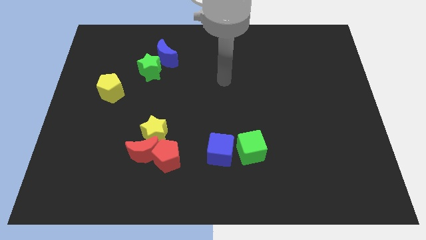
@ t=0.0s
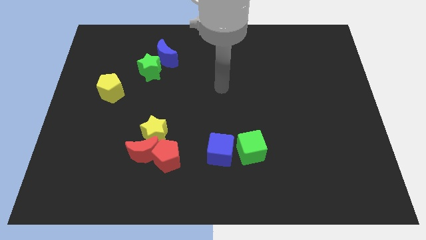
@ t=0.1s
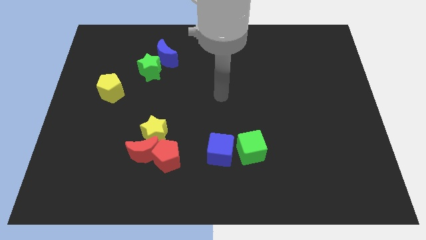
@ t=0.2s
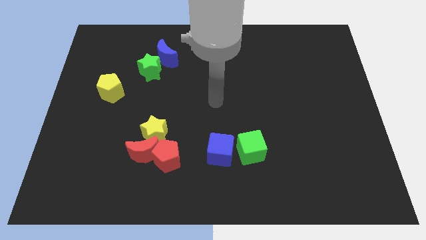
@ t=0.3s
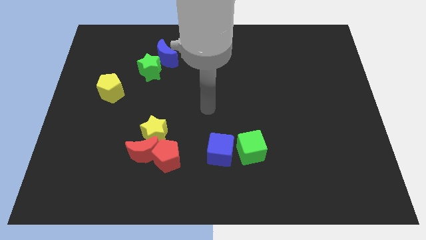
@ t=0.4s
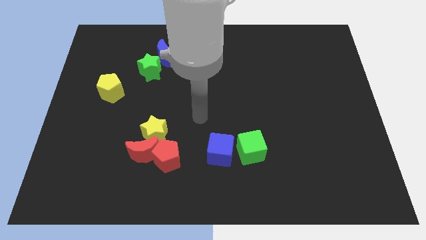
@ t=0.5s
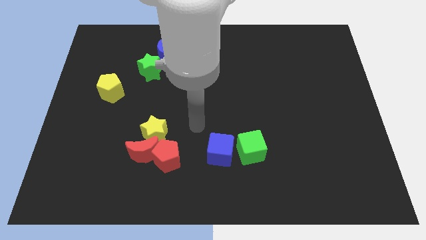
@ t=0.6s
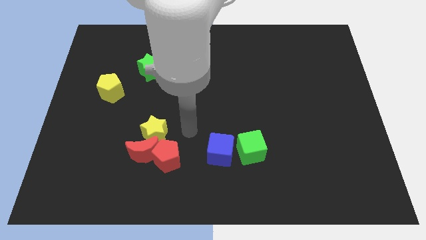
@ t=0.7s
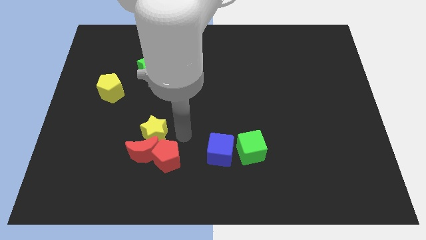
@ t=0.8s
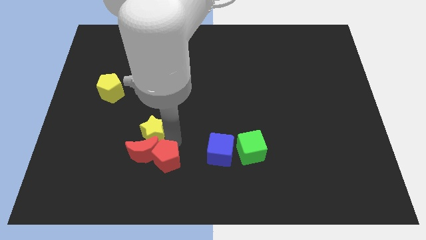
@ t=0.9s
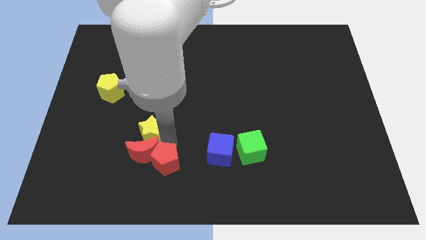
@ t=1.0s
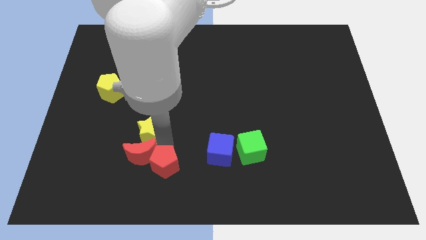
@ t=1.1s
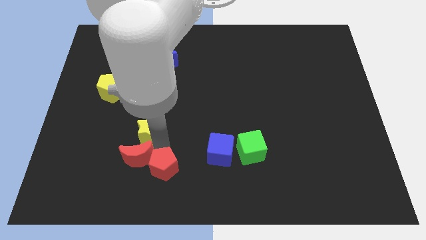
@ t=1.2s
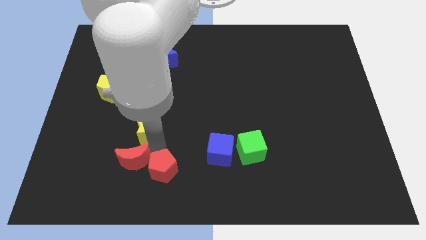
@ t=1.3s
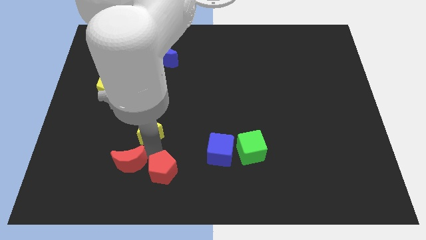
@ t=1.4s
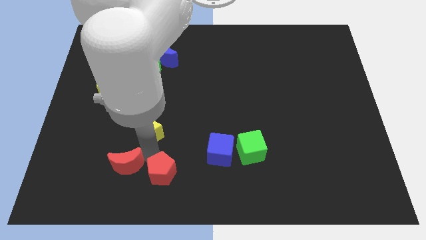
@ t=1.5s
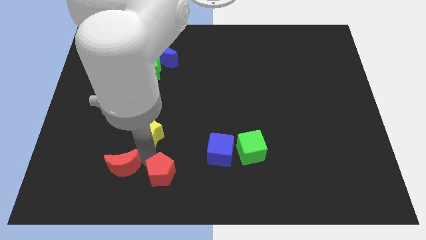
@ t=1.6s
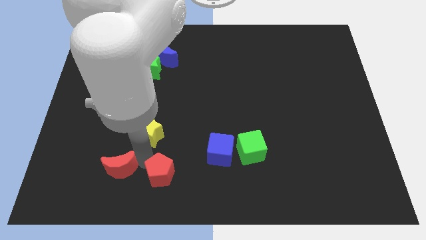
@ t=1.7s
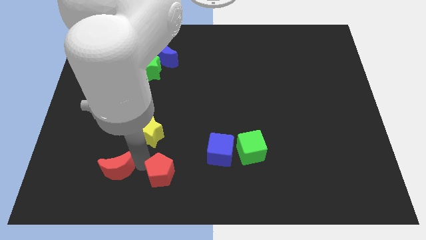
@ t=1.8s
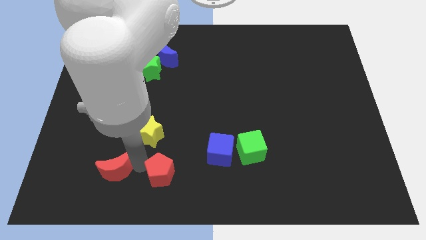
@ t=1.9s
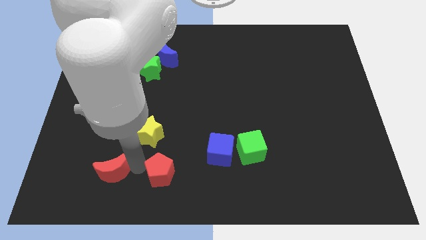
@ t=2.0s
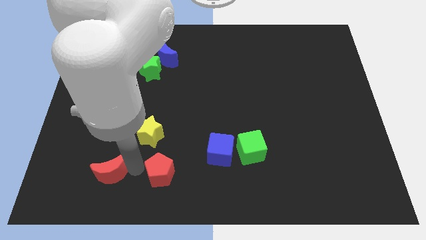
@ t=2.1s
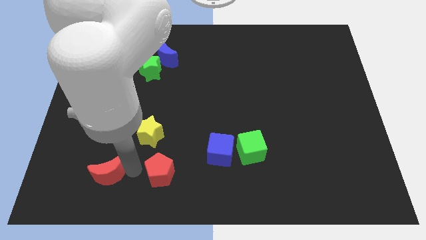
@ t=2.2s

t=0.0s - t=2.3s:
separate the red moon from the yellow star and red pentagon

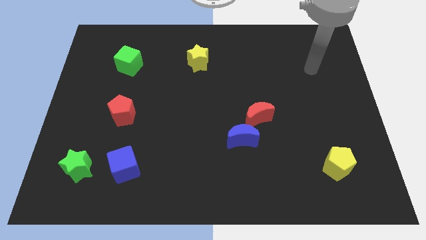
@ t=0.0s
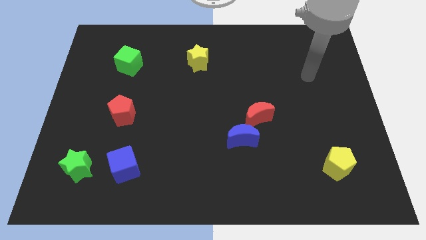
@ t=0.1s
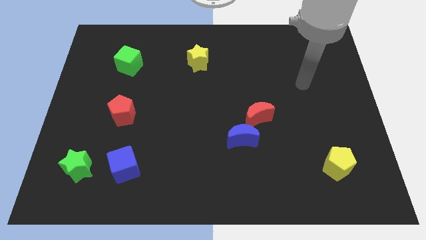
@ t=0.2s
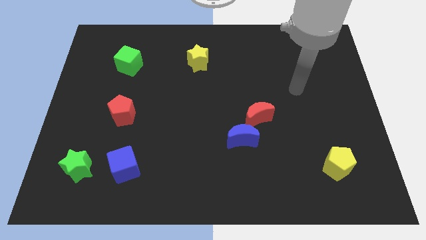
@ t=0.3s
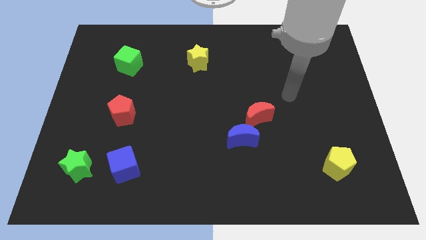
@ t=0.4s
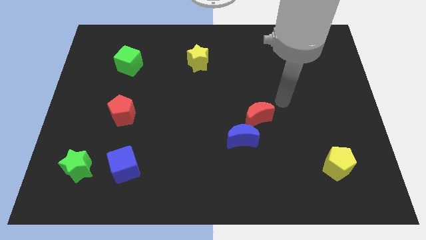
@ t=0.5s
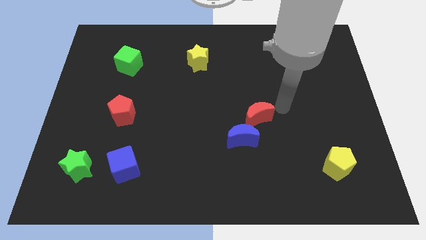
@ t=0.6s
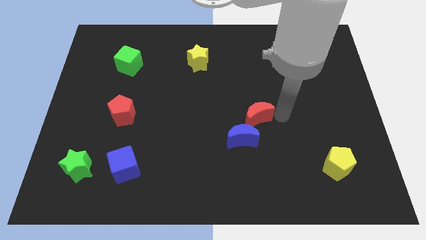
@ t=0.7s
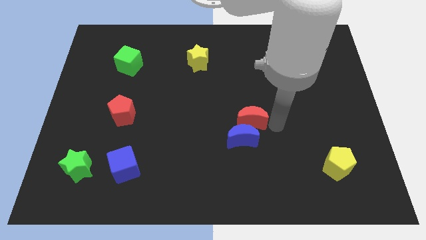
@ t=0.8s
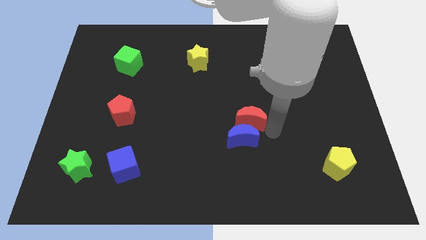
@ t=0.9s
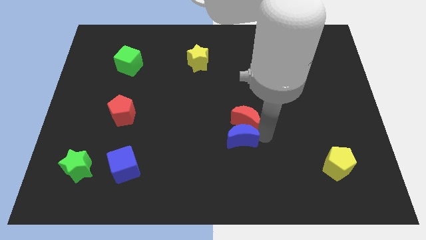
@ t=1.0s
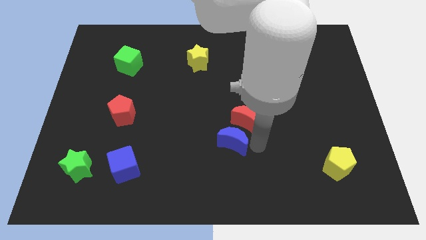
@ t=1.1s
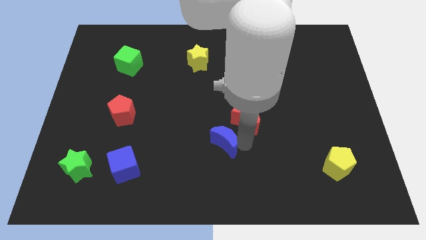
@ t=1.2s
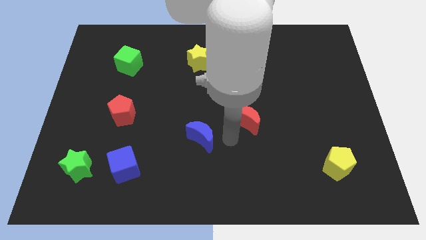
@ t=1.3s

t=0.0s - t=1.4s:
move the red moon away from the blue moon

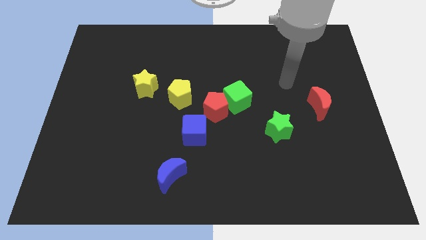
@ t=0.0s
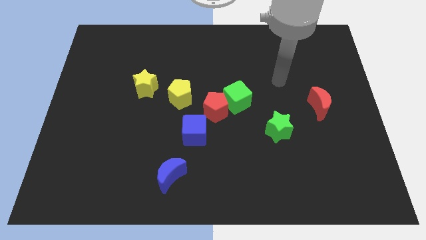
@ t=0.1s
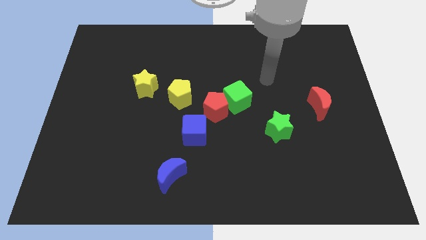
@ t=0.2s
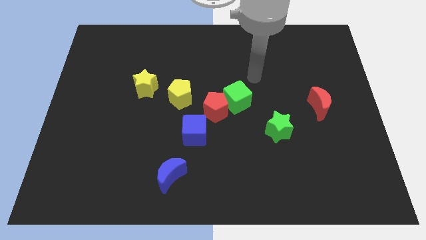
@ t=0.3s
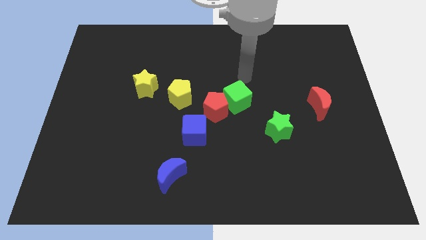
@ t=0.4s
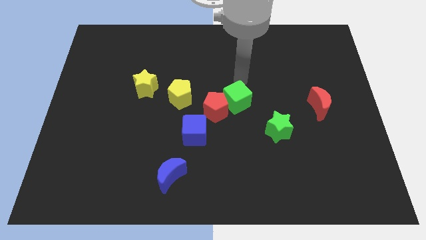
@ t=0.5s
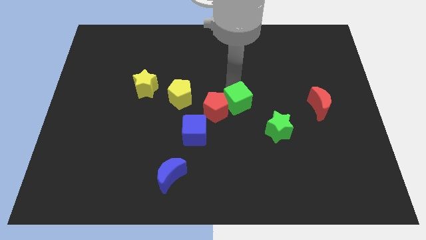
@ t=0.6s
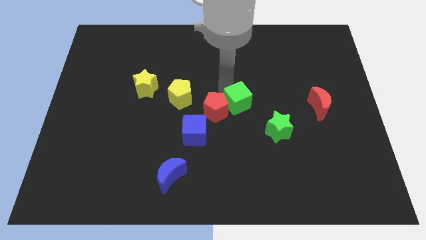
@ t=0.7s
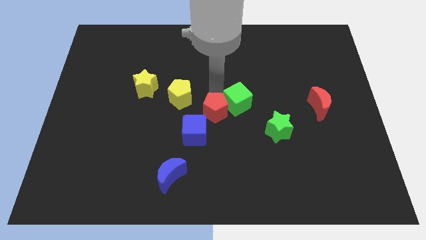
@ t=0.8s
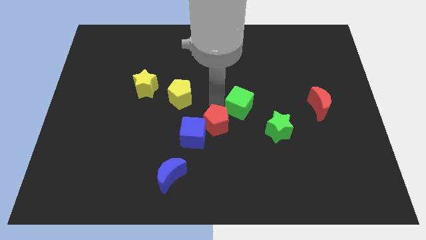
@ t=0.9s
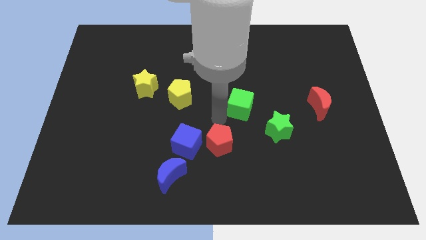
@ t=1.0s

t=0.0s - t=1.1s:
pull the green cube apart from the red pentagon

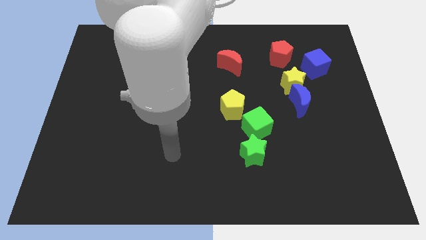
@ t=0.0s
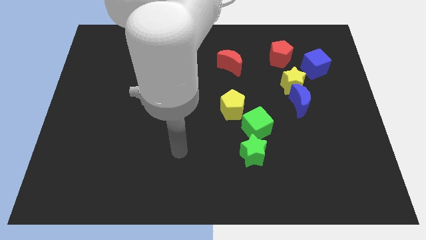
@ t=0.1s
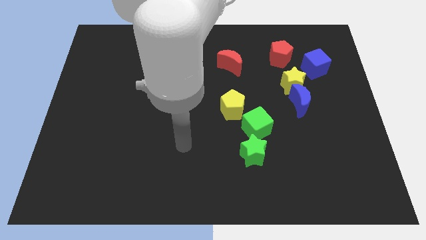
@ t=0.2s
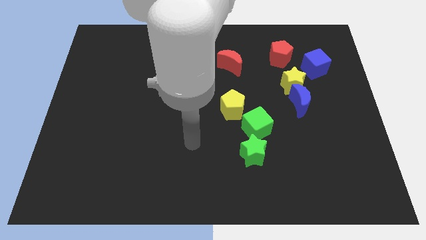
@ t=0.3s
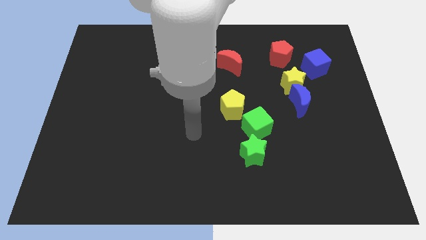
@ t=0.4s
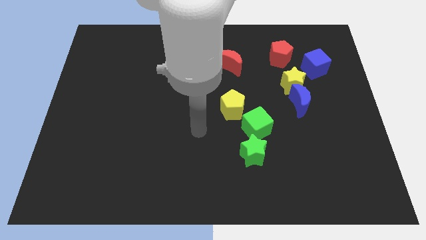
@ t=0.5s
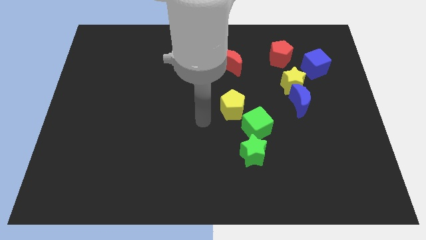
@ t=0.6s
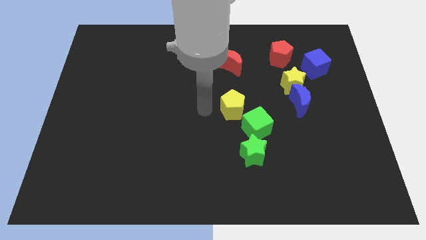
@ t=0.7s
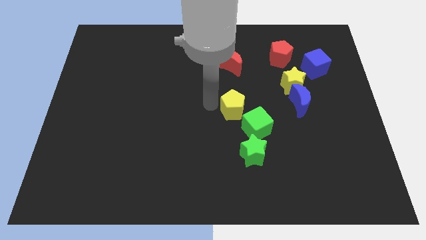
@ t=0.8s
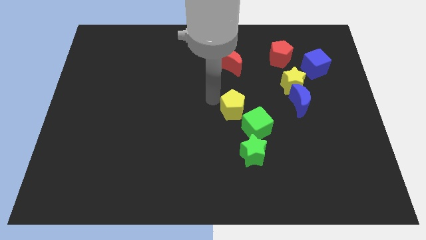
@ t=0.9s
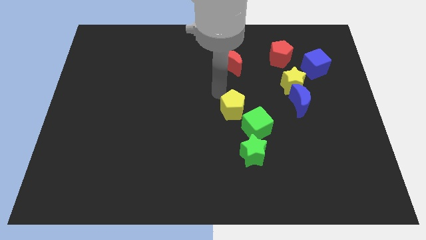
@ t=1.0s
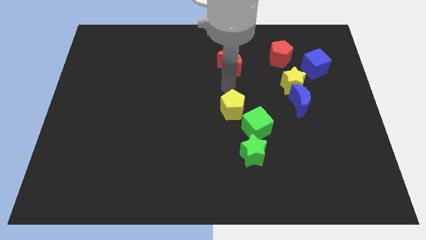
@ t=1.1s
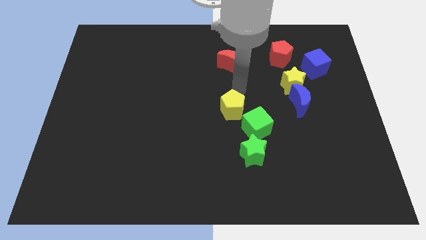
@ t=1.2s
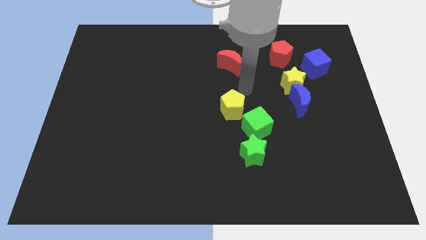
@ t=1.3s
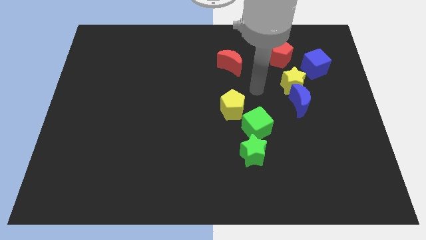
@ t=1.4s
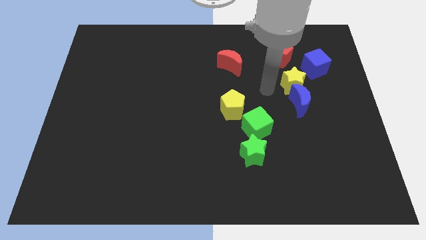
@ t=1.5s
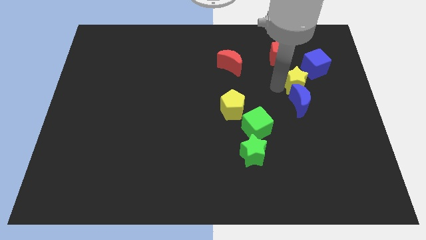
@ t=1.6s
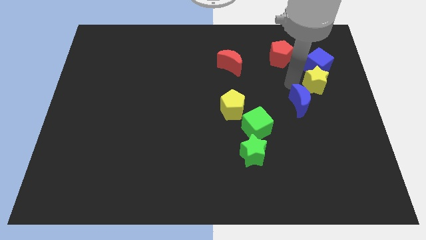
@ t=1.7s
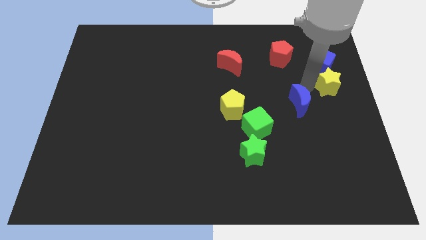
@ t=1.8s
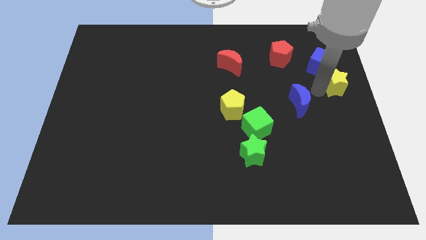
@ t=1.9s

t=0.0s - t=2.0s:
move the blue moon away from the yellow star

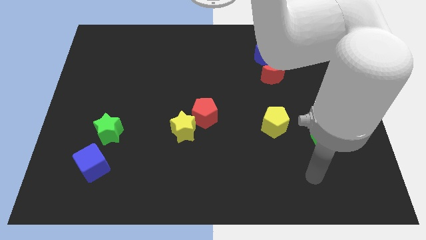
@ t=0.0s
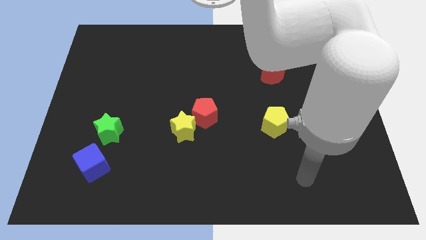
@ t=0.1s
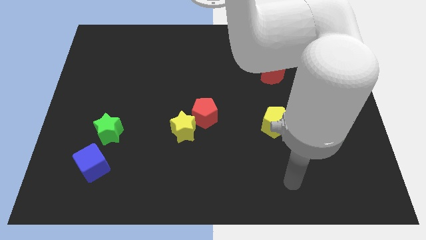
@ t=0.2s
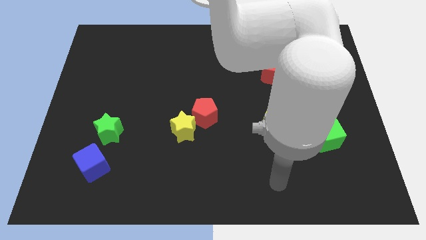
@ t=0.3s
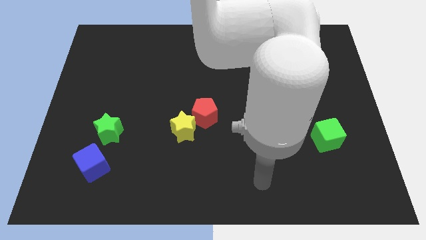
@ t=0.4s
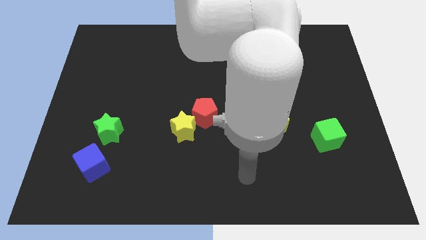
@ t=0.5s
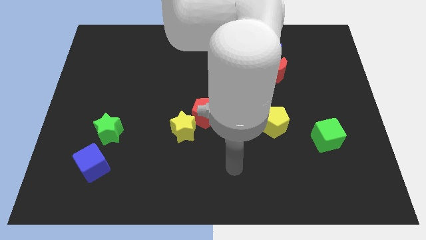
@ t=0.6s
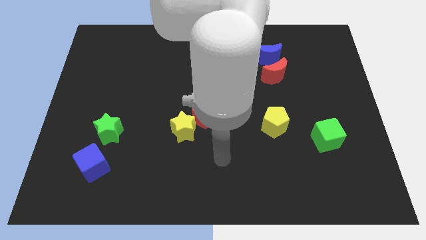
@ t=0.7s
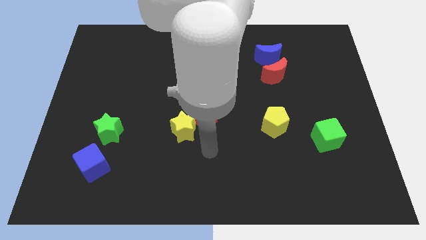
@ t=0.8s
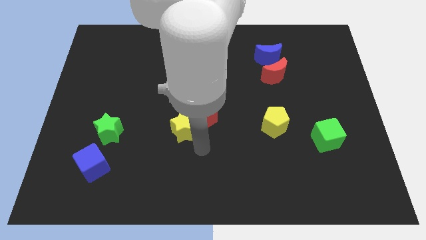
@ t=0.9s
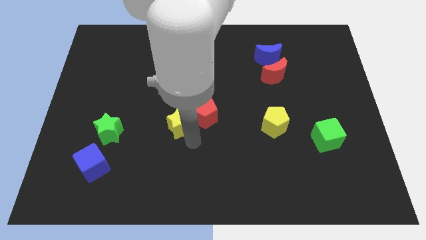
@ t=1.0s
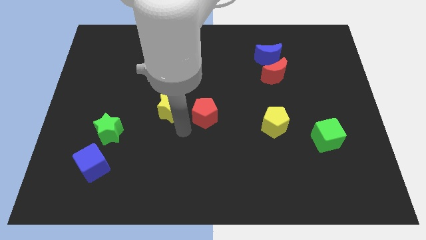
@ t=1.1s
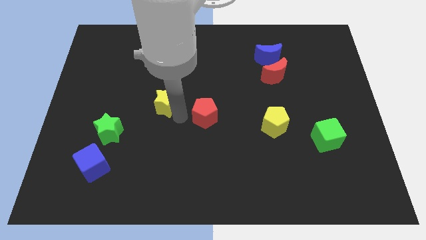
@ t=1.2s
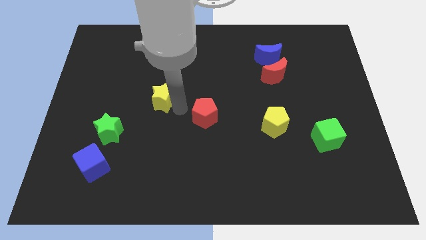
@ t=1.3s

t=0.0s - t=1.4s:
move the red pentagon away from the yellow star

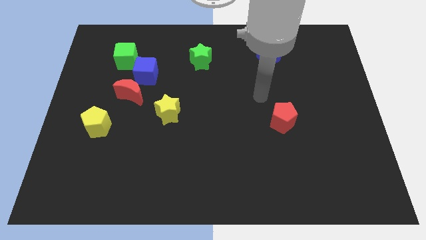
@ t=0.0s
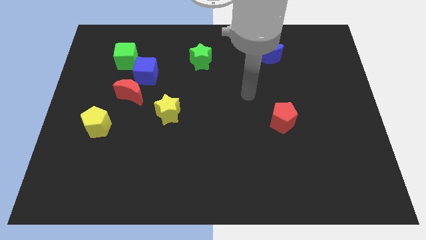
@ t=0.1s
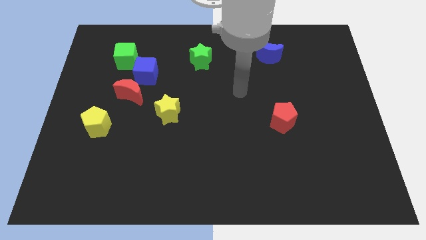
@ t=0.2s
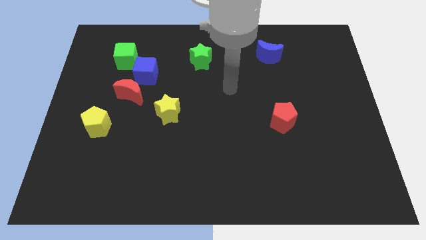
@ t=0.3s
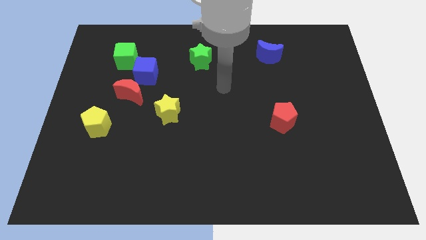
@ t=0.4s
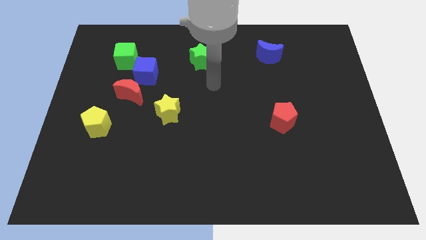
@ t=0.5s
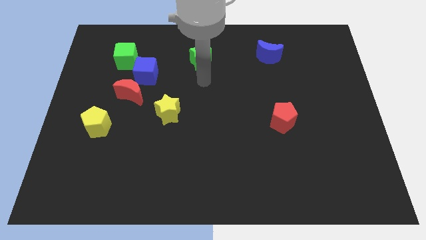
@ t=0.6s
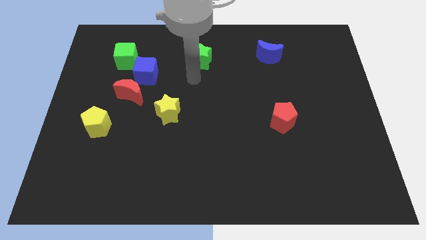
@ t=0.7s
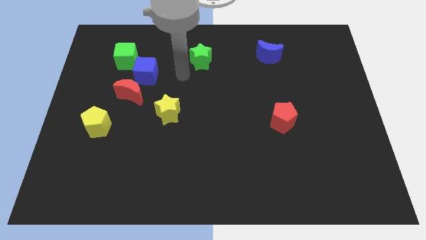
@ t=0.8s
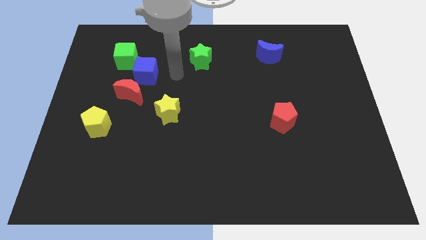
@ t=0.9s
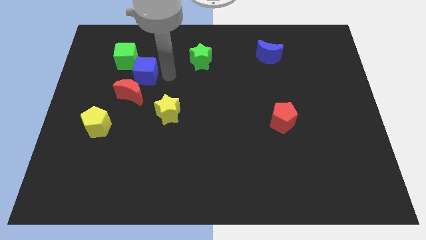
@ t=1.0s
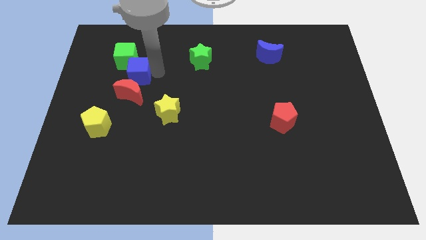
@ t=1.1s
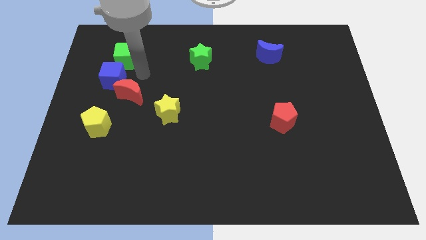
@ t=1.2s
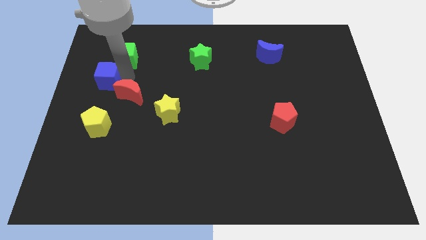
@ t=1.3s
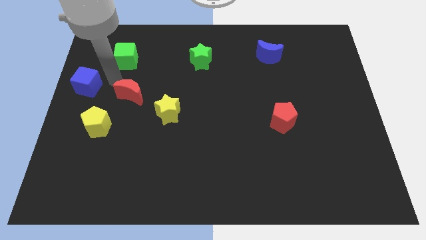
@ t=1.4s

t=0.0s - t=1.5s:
separate the red moon from the blue cube
